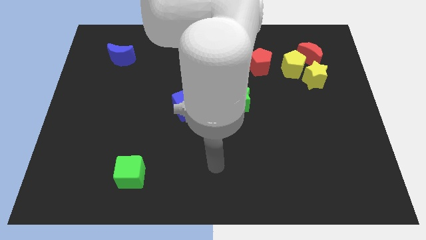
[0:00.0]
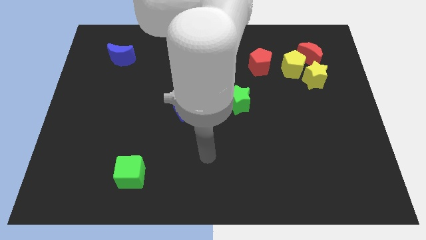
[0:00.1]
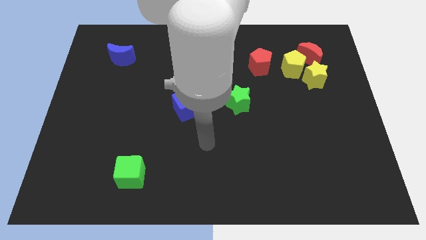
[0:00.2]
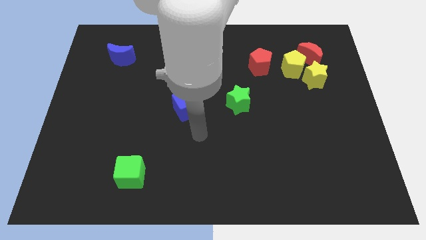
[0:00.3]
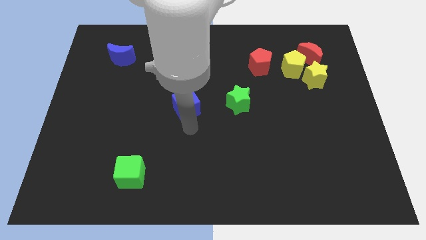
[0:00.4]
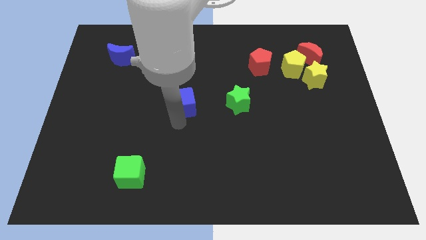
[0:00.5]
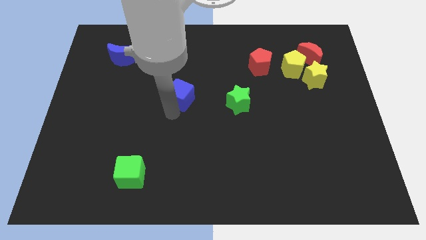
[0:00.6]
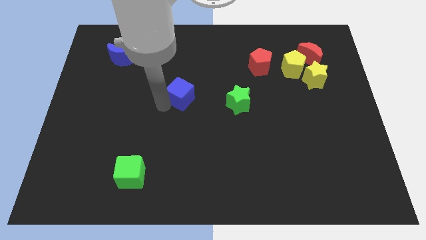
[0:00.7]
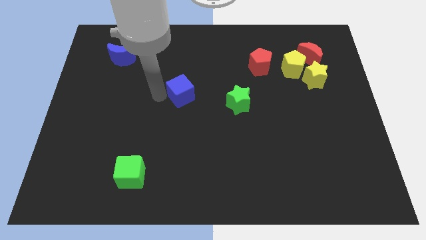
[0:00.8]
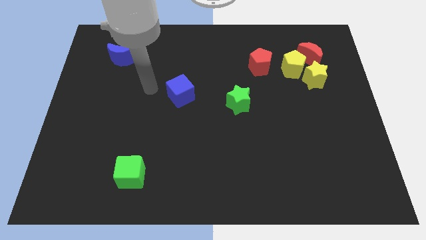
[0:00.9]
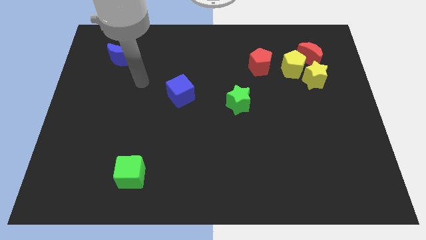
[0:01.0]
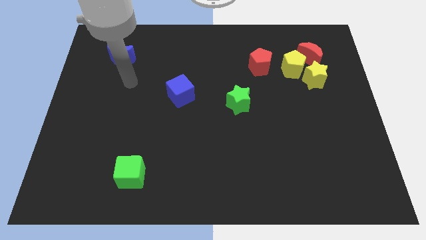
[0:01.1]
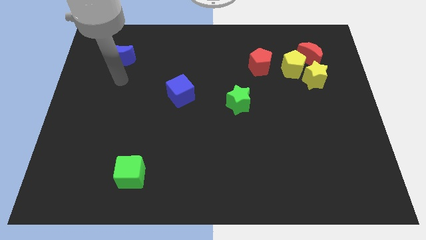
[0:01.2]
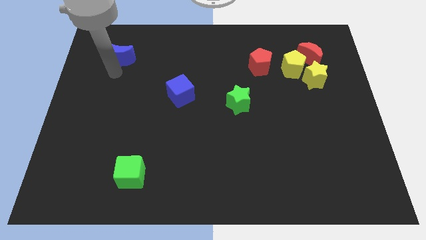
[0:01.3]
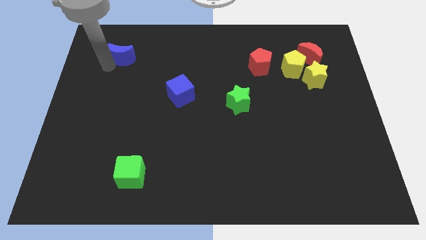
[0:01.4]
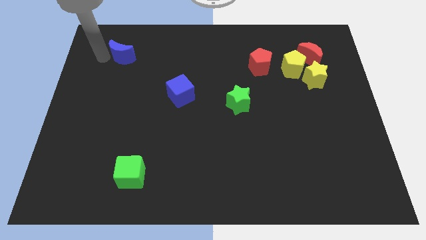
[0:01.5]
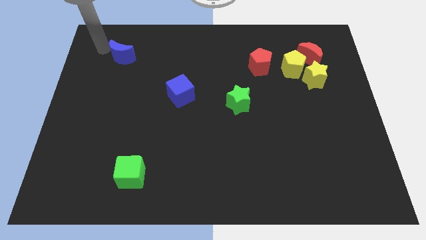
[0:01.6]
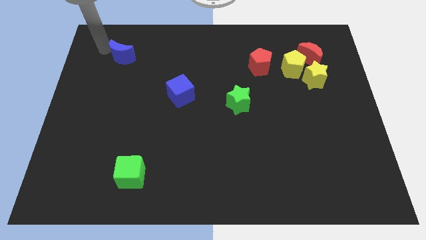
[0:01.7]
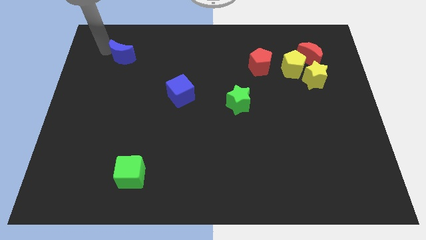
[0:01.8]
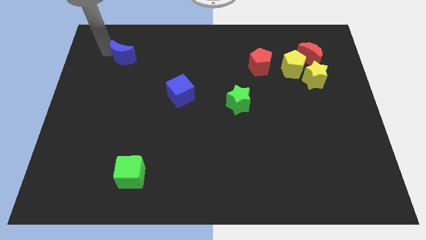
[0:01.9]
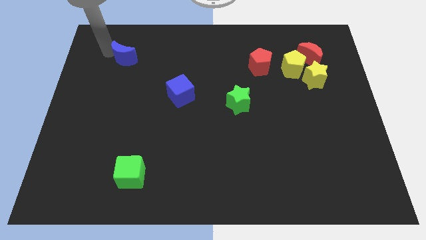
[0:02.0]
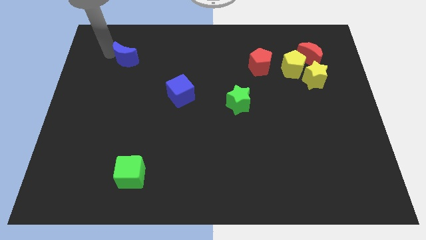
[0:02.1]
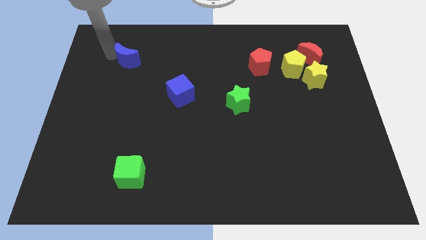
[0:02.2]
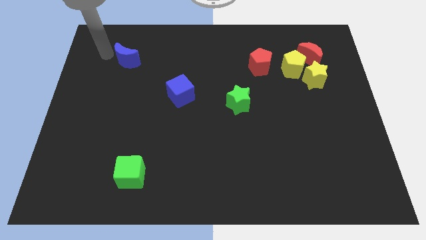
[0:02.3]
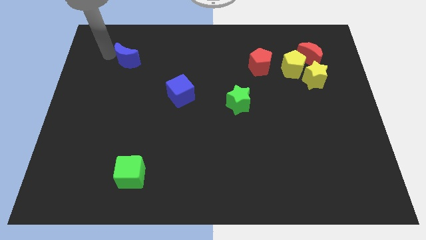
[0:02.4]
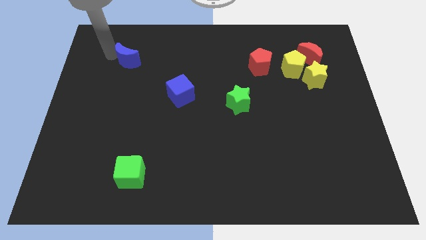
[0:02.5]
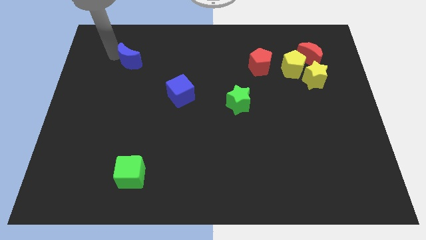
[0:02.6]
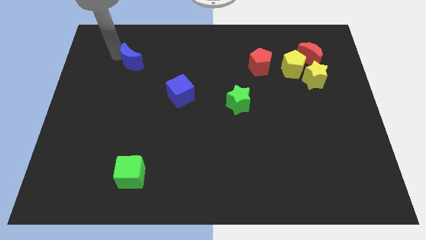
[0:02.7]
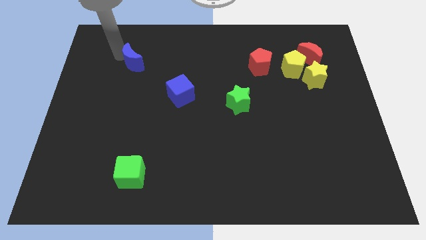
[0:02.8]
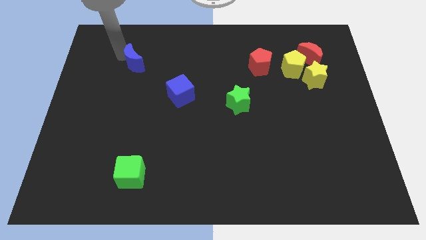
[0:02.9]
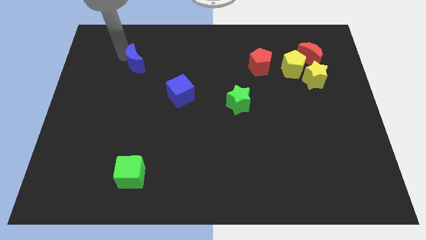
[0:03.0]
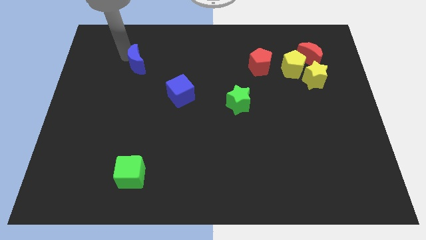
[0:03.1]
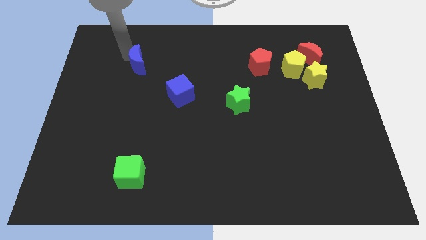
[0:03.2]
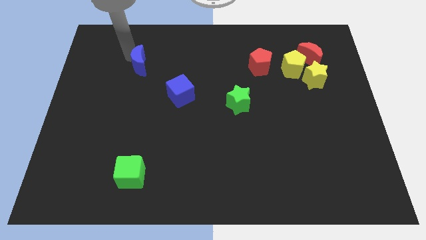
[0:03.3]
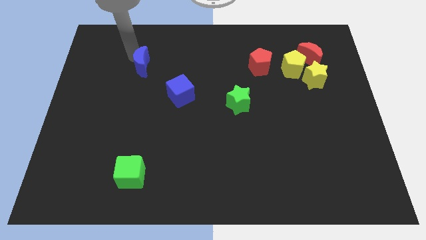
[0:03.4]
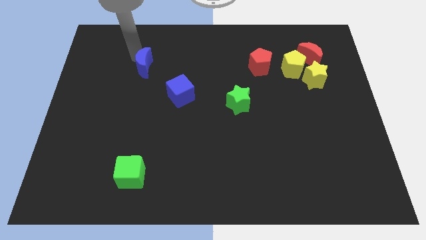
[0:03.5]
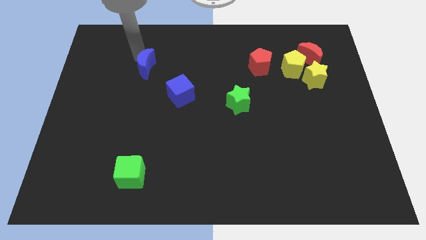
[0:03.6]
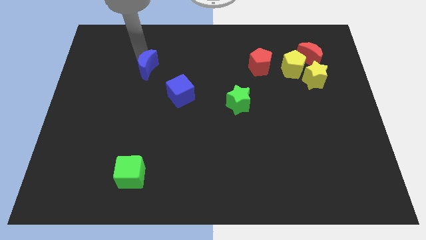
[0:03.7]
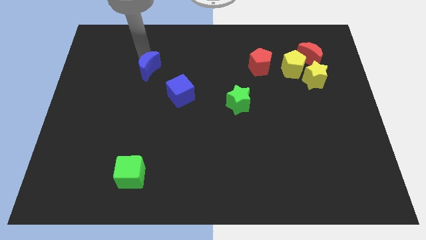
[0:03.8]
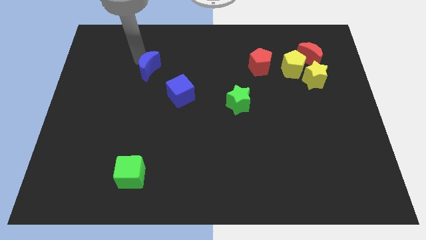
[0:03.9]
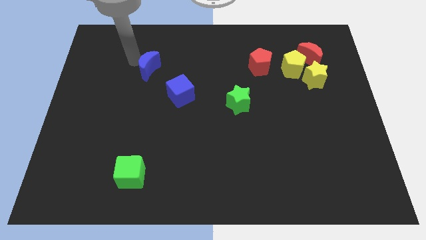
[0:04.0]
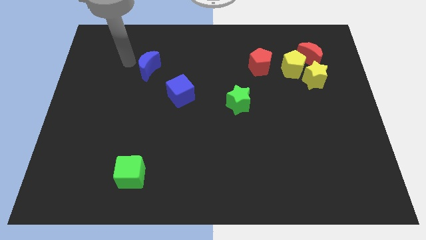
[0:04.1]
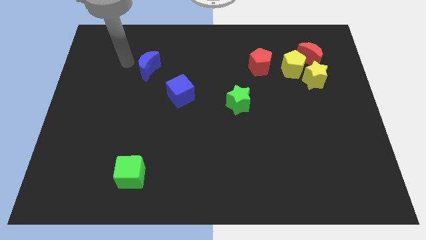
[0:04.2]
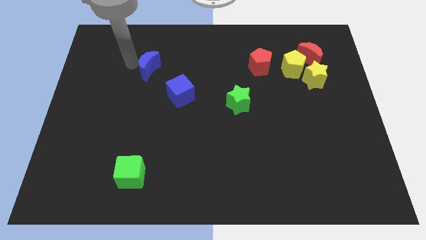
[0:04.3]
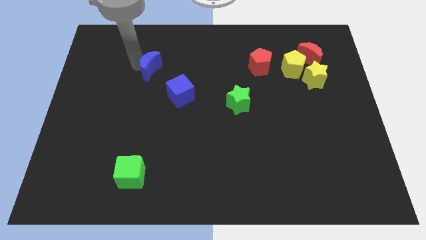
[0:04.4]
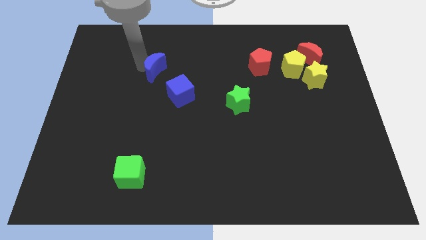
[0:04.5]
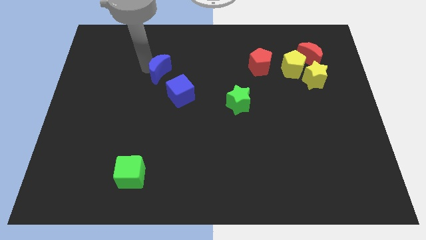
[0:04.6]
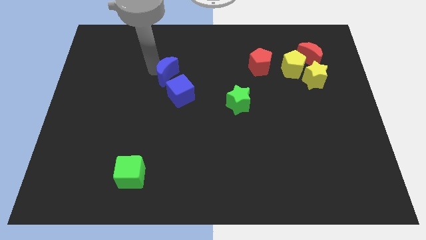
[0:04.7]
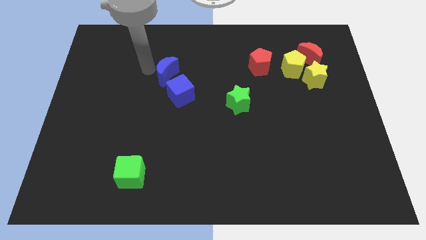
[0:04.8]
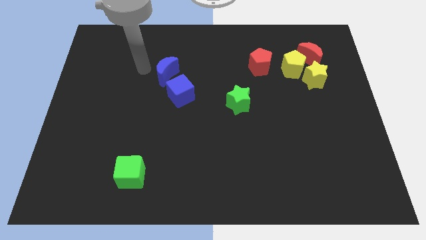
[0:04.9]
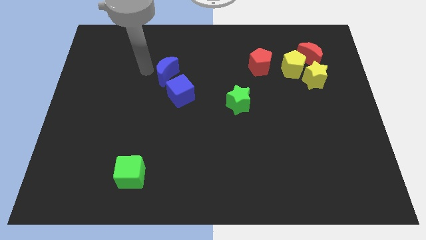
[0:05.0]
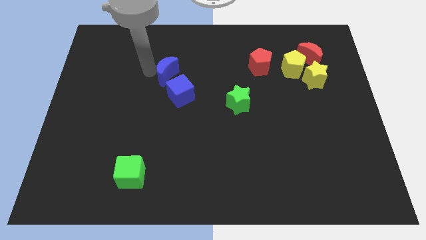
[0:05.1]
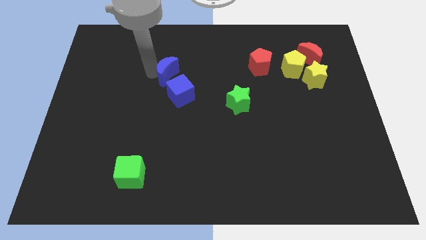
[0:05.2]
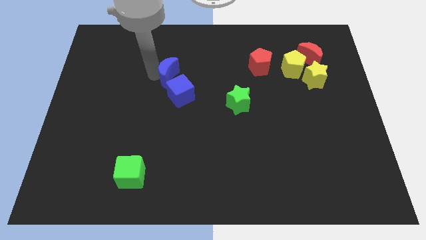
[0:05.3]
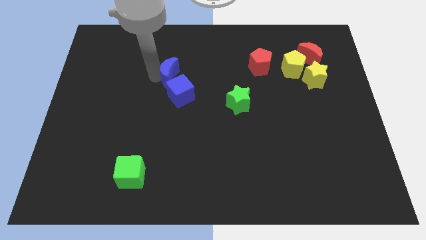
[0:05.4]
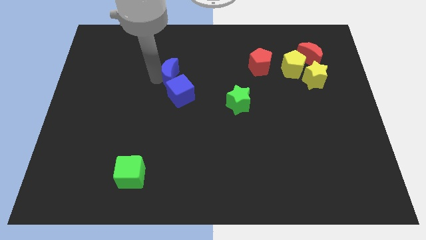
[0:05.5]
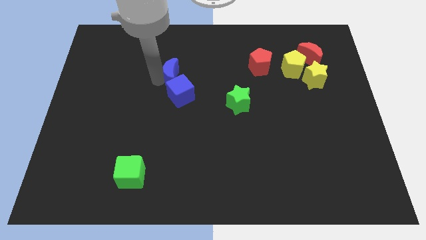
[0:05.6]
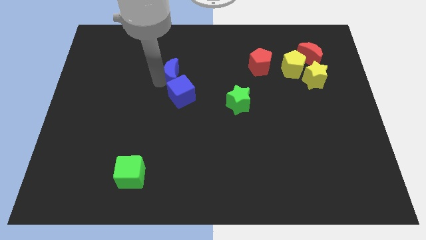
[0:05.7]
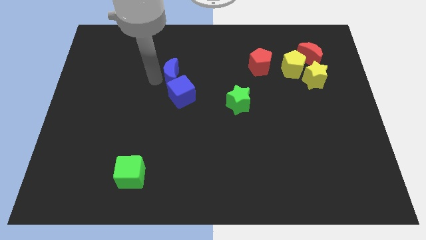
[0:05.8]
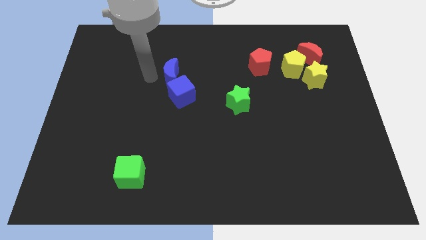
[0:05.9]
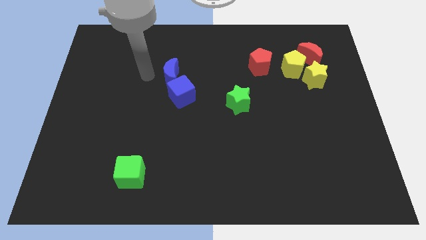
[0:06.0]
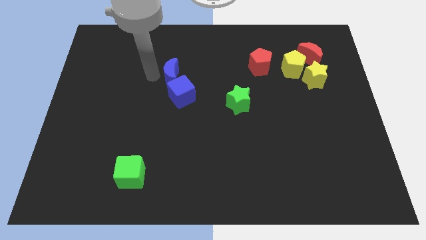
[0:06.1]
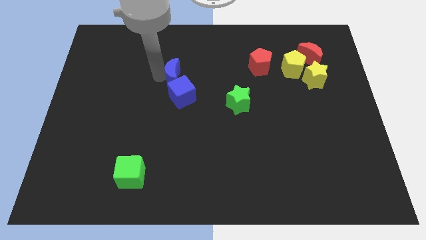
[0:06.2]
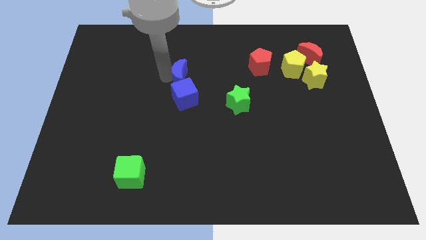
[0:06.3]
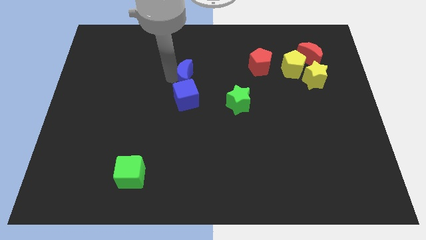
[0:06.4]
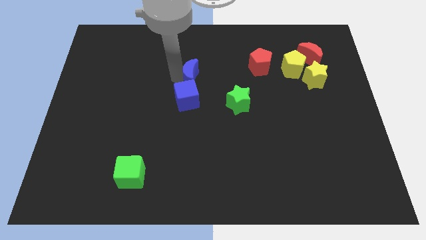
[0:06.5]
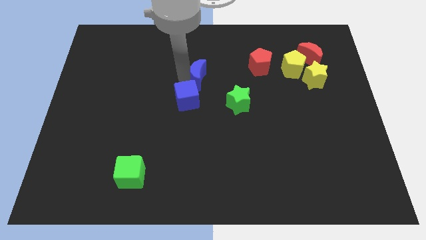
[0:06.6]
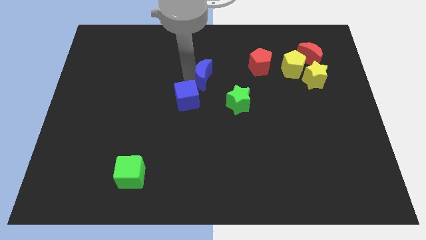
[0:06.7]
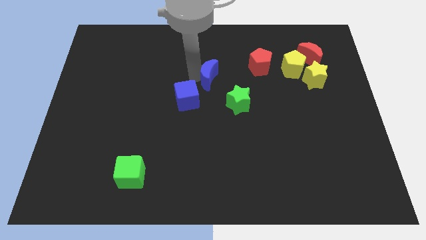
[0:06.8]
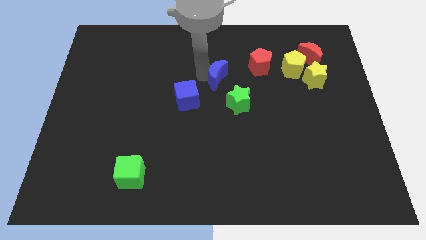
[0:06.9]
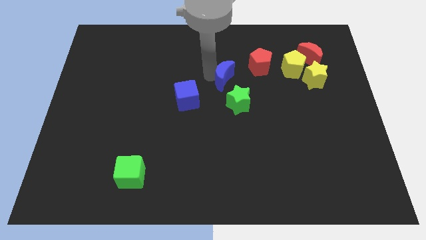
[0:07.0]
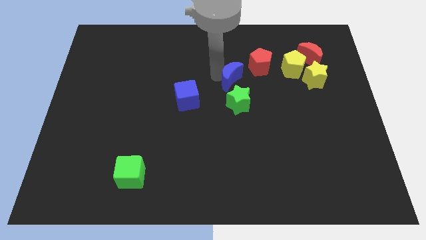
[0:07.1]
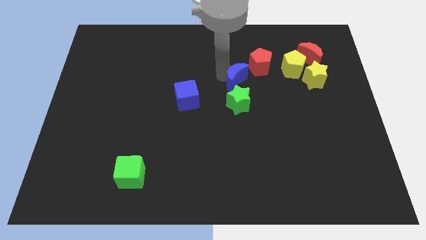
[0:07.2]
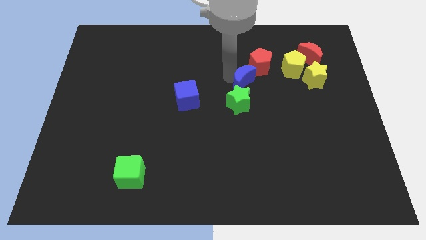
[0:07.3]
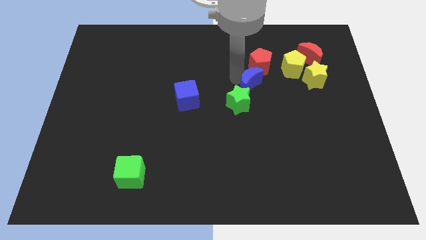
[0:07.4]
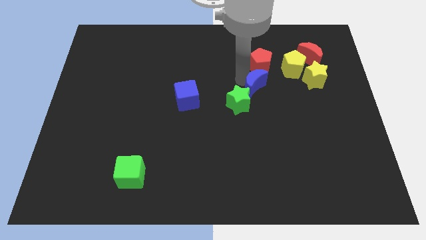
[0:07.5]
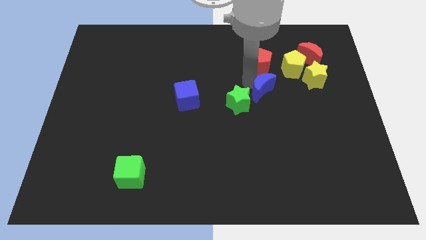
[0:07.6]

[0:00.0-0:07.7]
push the blue moon just right of the green star
